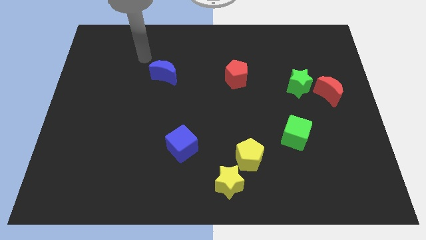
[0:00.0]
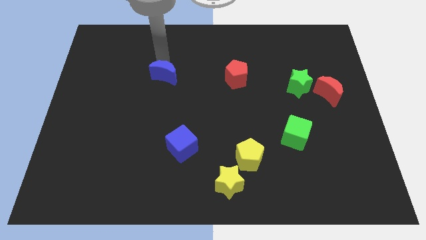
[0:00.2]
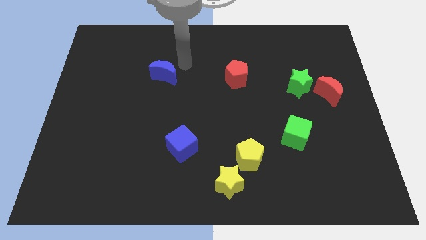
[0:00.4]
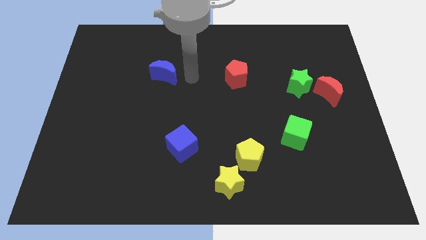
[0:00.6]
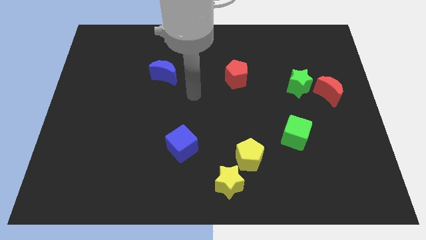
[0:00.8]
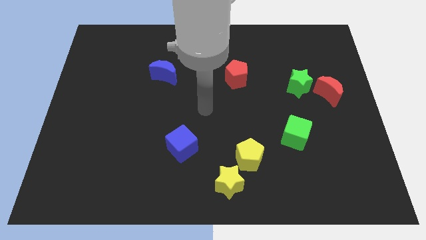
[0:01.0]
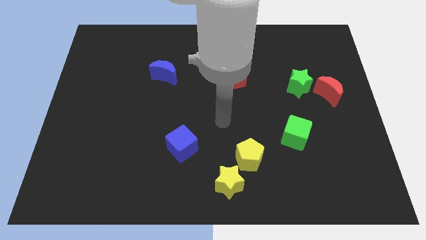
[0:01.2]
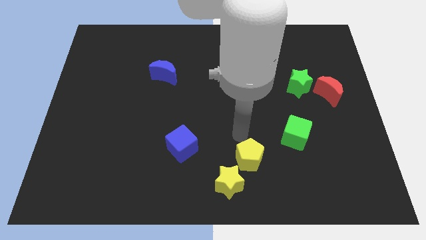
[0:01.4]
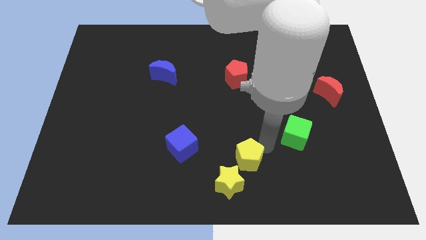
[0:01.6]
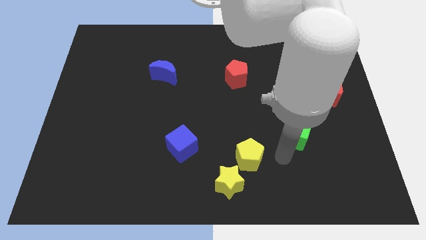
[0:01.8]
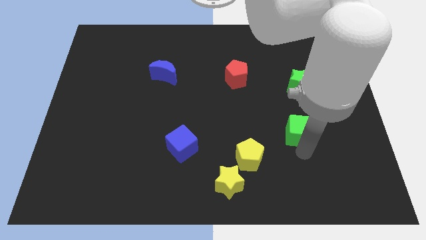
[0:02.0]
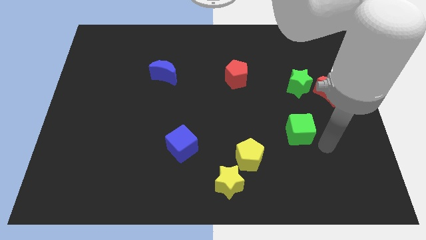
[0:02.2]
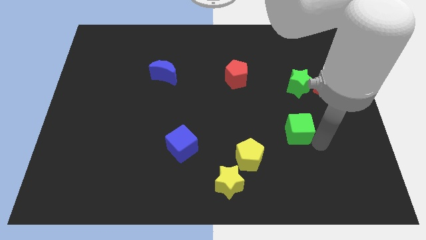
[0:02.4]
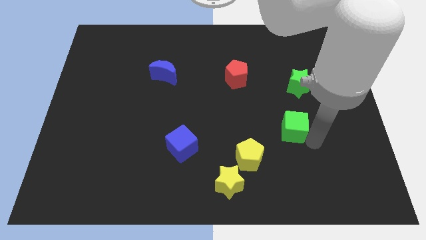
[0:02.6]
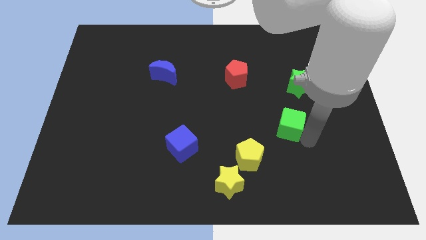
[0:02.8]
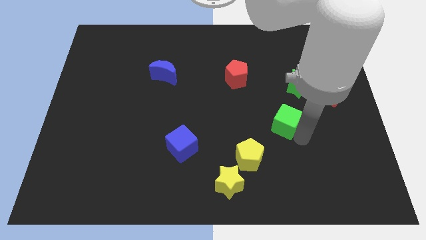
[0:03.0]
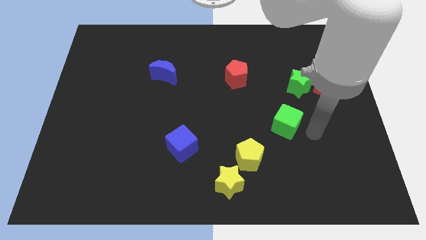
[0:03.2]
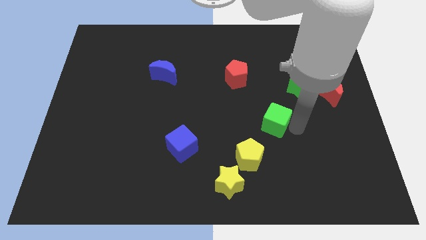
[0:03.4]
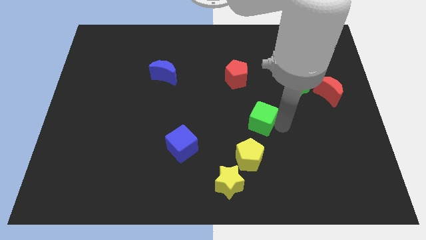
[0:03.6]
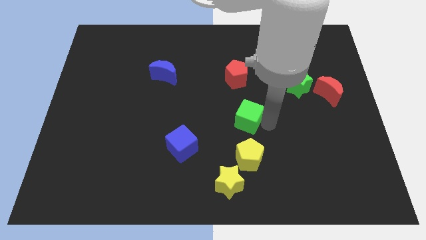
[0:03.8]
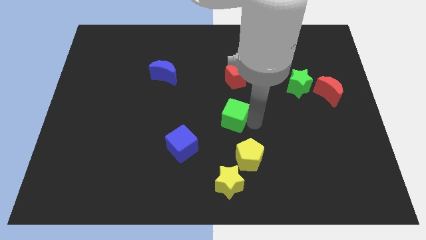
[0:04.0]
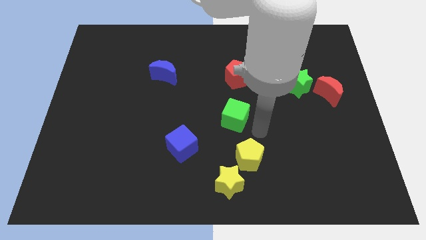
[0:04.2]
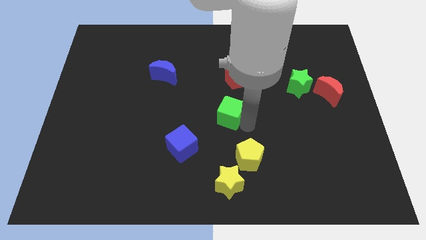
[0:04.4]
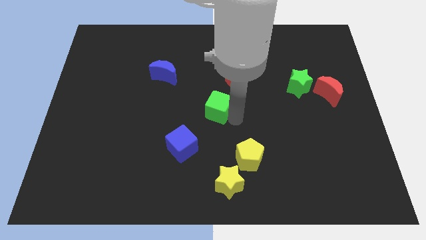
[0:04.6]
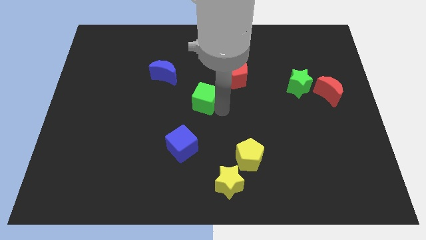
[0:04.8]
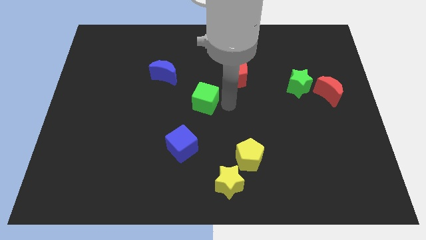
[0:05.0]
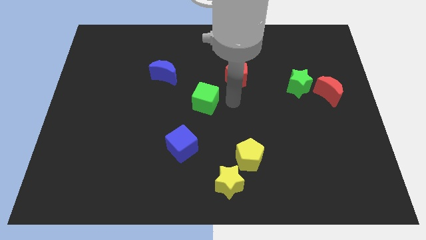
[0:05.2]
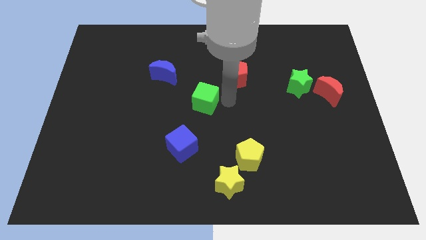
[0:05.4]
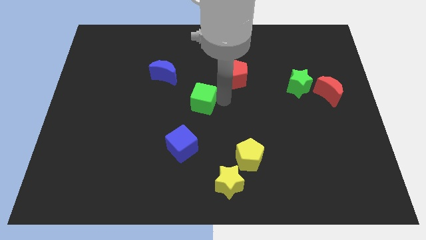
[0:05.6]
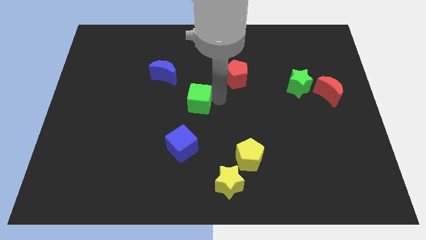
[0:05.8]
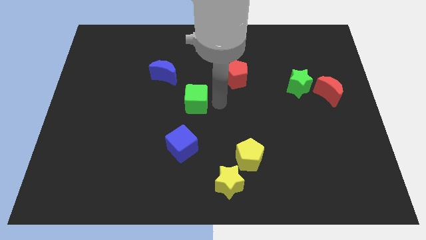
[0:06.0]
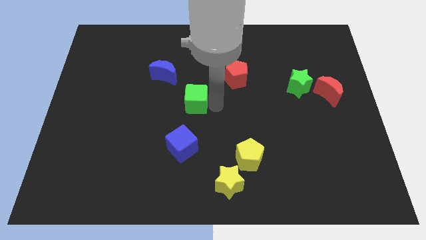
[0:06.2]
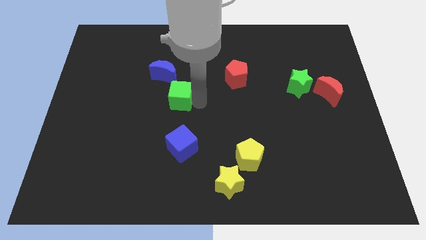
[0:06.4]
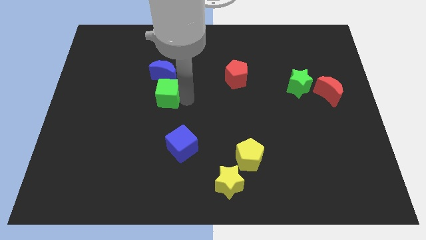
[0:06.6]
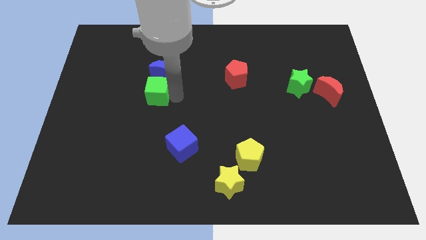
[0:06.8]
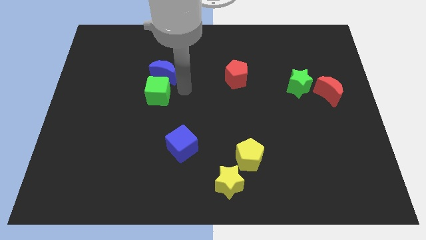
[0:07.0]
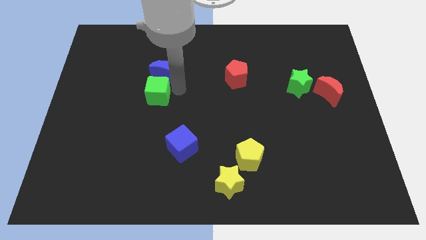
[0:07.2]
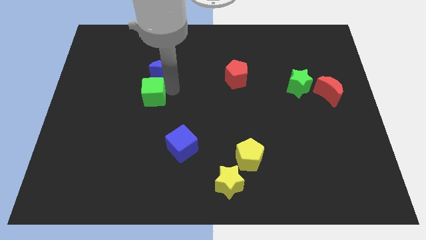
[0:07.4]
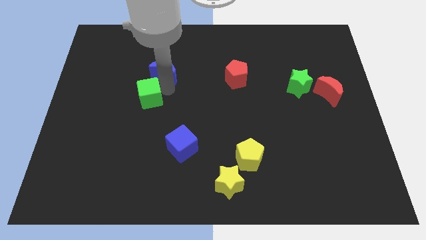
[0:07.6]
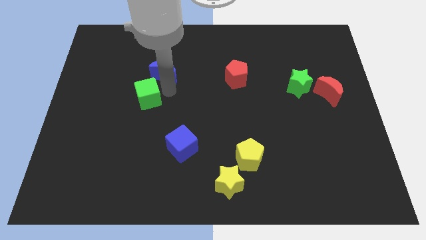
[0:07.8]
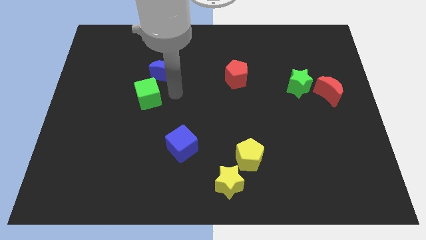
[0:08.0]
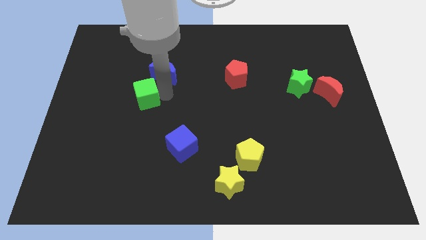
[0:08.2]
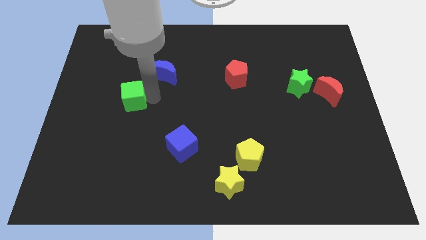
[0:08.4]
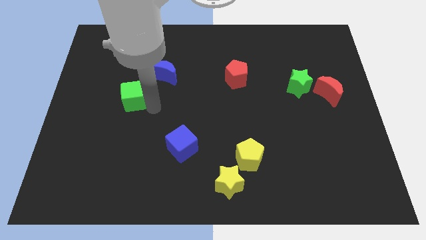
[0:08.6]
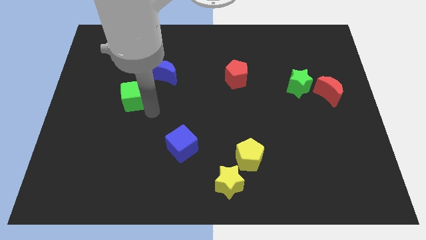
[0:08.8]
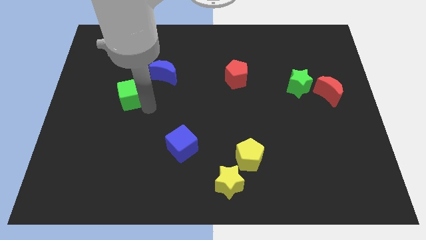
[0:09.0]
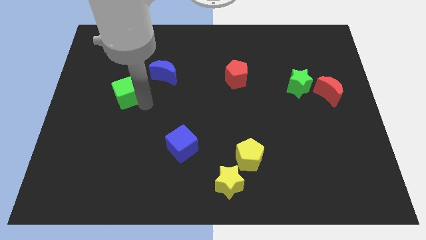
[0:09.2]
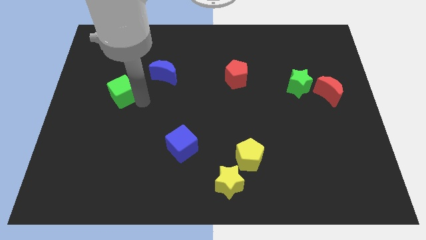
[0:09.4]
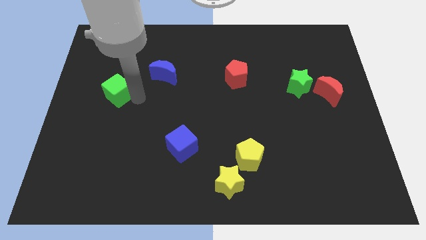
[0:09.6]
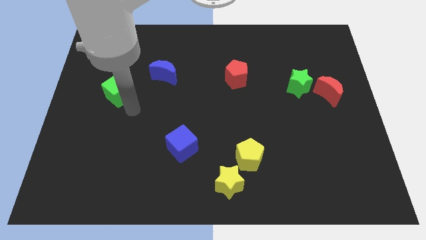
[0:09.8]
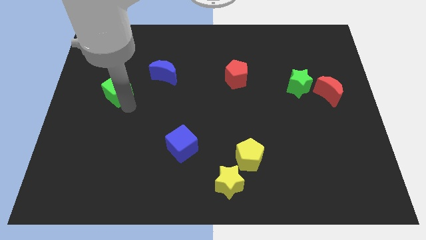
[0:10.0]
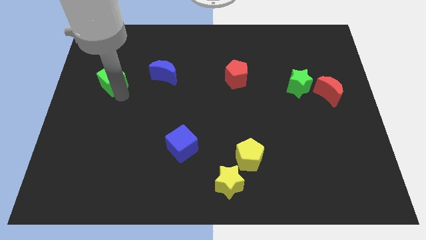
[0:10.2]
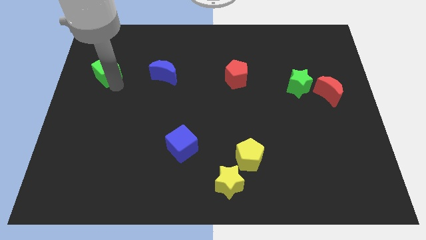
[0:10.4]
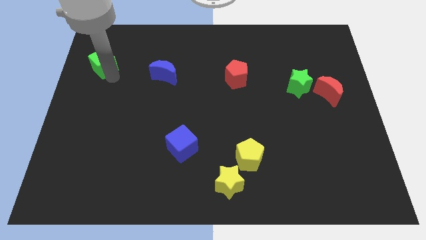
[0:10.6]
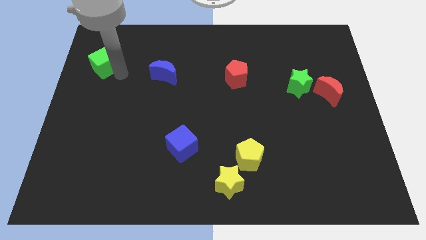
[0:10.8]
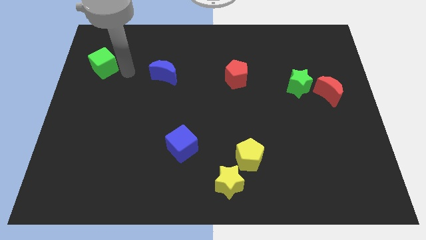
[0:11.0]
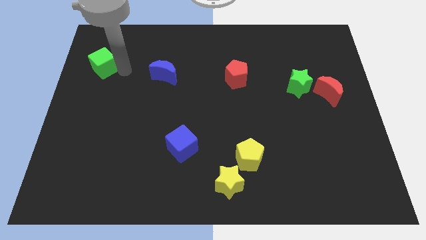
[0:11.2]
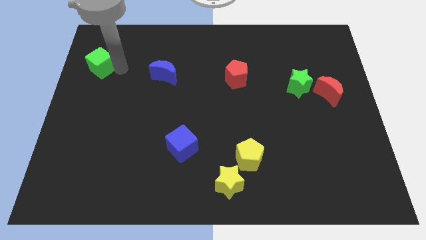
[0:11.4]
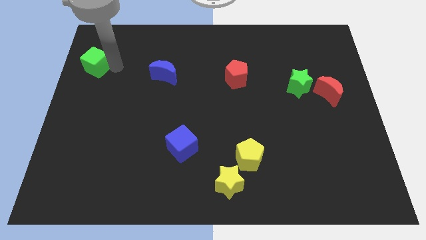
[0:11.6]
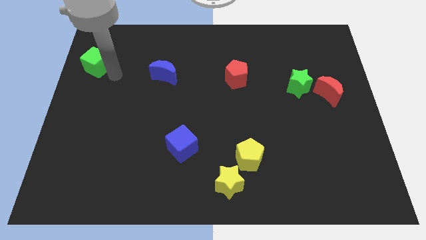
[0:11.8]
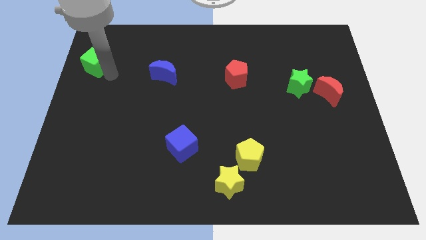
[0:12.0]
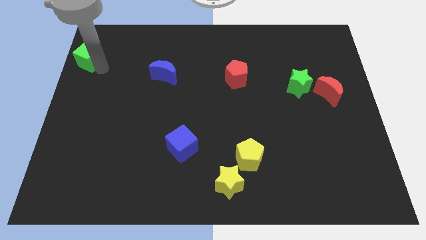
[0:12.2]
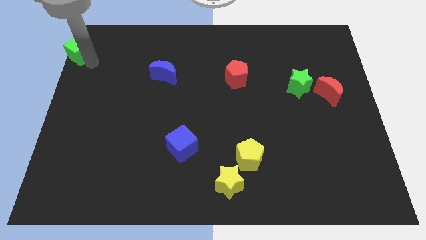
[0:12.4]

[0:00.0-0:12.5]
move the green cube to the top left of the board

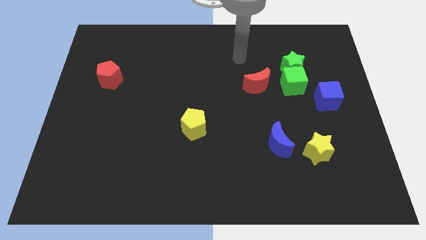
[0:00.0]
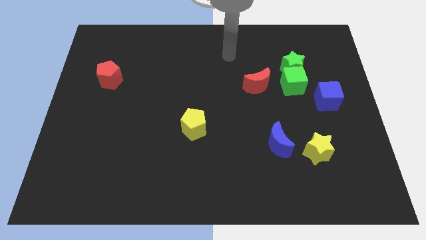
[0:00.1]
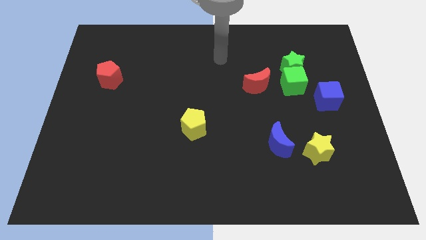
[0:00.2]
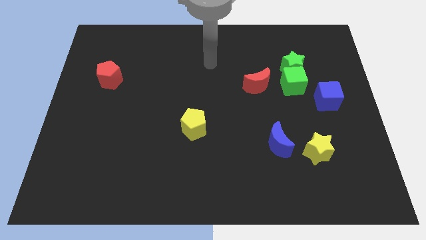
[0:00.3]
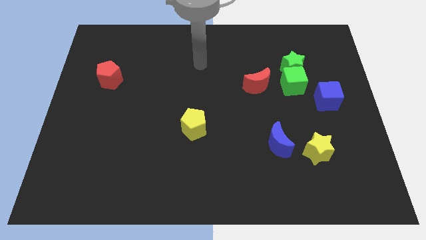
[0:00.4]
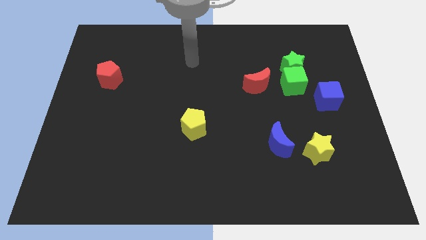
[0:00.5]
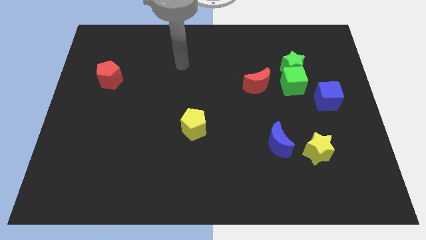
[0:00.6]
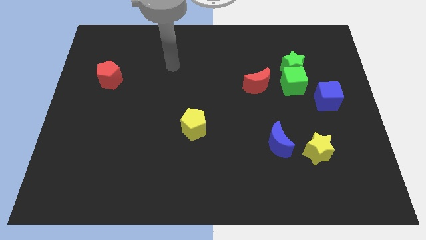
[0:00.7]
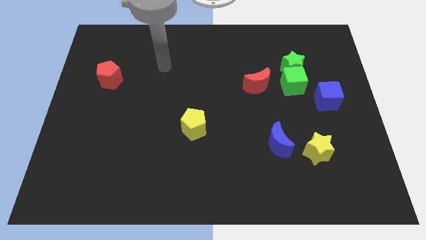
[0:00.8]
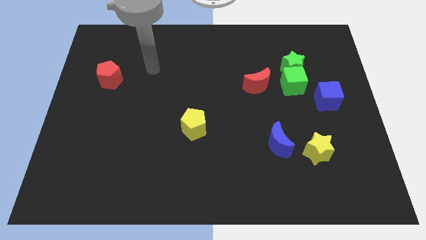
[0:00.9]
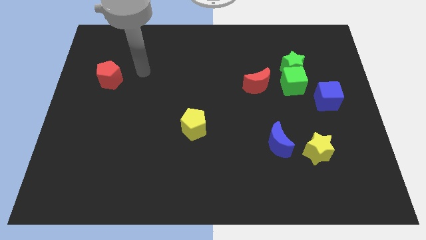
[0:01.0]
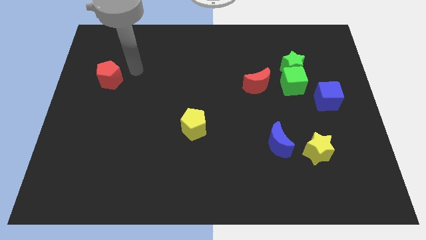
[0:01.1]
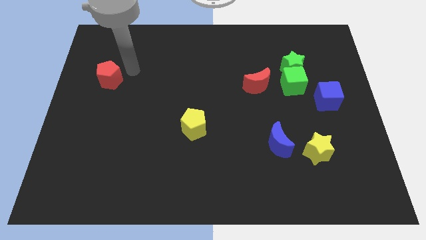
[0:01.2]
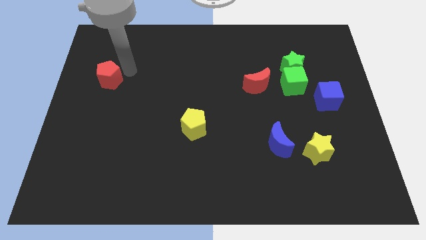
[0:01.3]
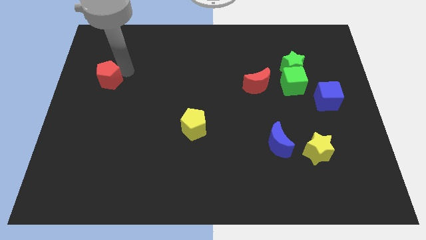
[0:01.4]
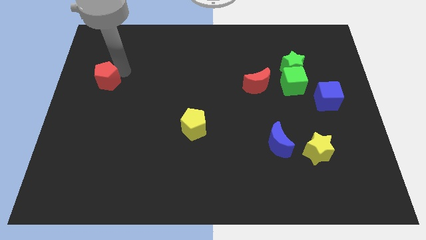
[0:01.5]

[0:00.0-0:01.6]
put the red pentagon to the left side of the board
